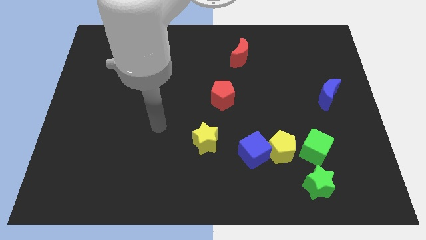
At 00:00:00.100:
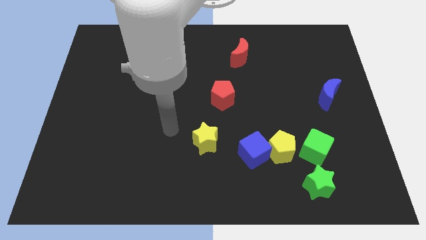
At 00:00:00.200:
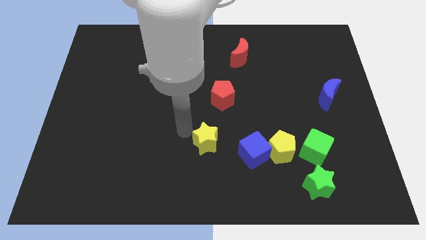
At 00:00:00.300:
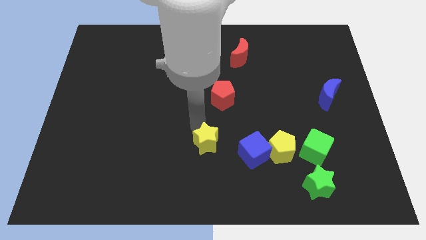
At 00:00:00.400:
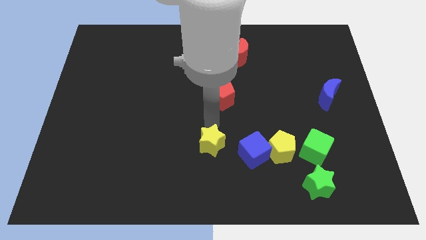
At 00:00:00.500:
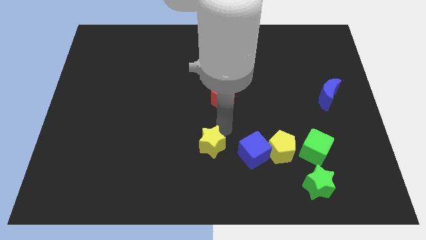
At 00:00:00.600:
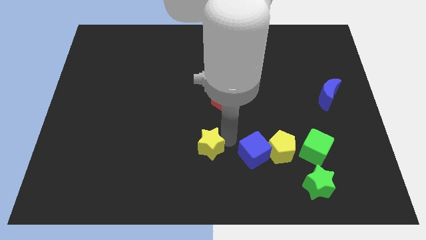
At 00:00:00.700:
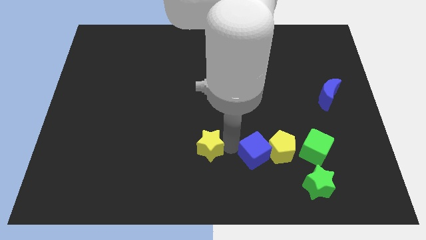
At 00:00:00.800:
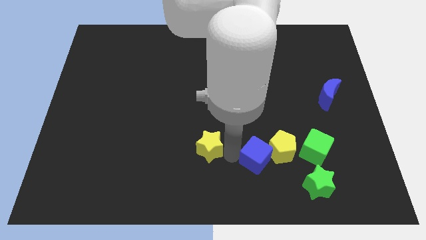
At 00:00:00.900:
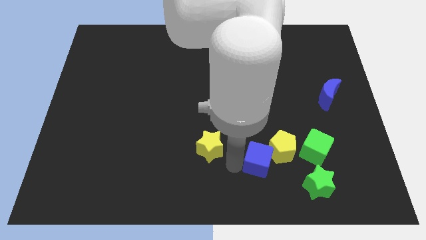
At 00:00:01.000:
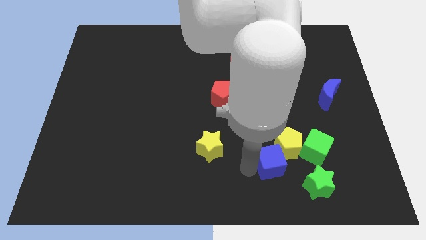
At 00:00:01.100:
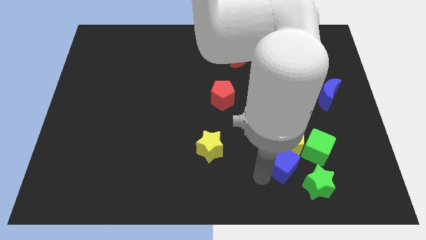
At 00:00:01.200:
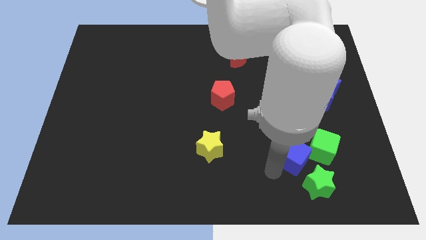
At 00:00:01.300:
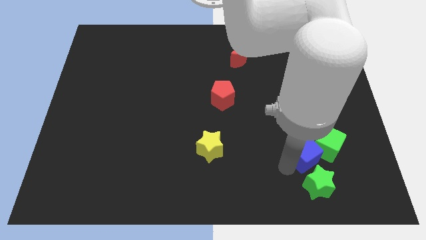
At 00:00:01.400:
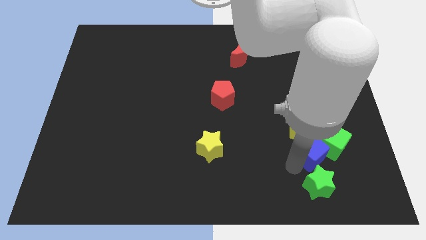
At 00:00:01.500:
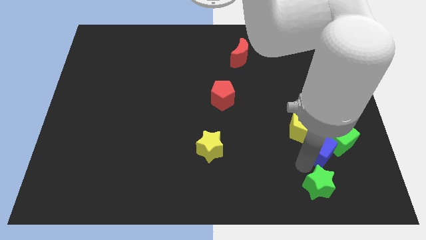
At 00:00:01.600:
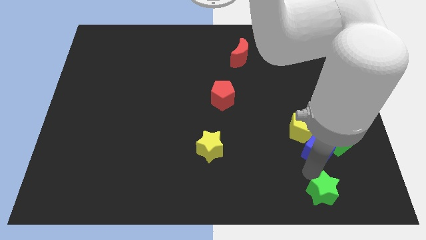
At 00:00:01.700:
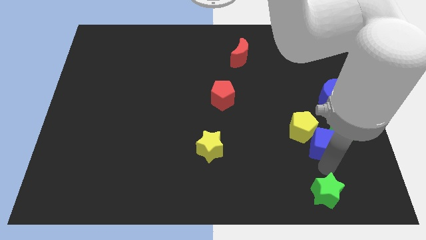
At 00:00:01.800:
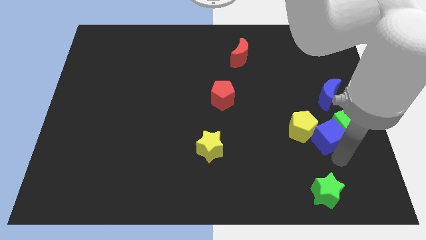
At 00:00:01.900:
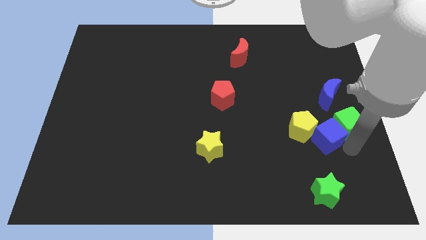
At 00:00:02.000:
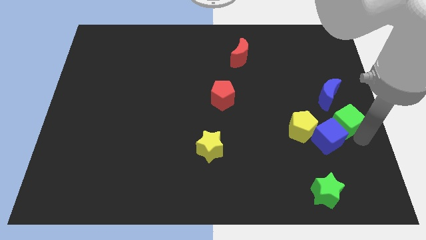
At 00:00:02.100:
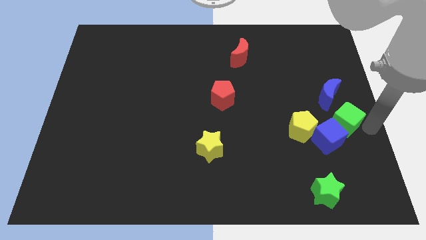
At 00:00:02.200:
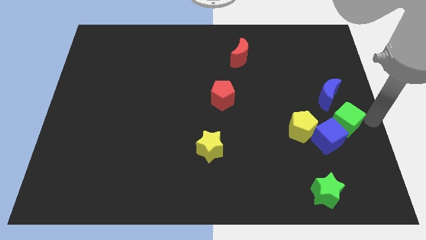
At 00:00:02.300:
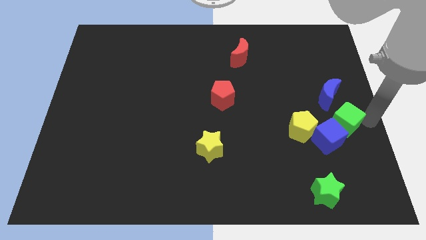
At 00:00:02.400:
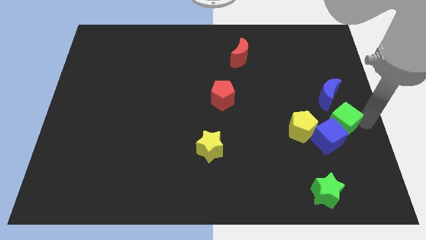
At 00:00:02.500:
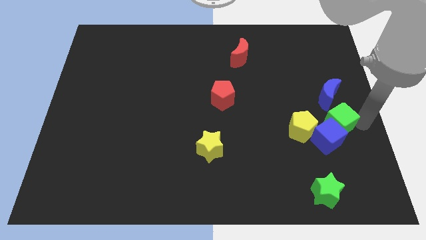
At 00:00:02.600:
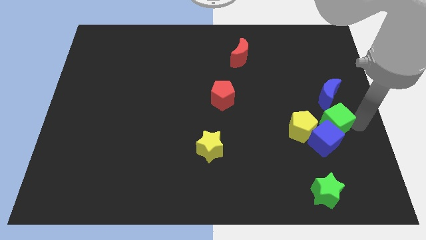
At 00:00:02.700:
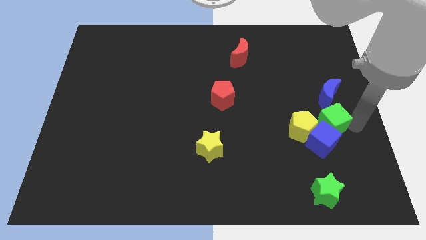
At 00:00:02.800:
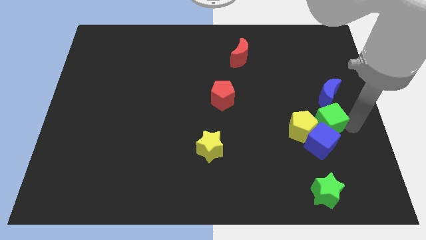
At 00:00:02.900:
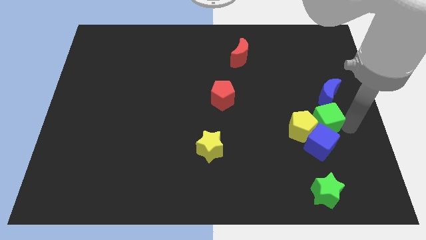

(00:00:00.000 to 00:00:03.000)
slightly push the green cube up

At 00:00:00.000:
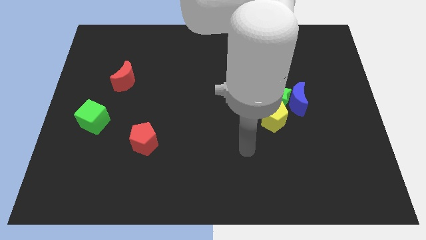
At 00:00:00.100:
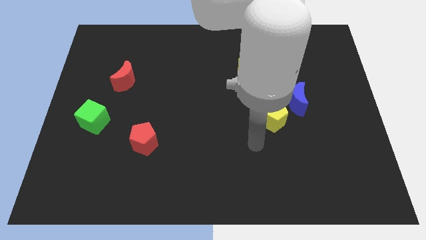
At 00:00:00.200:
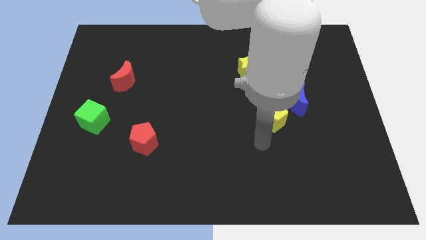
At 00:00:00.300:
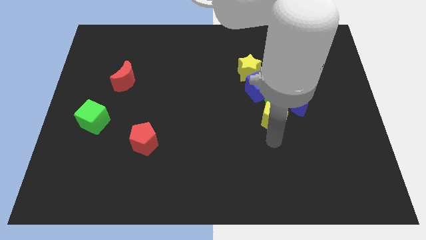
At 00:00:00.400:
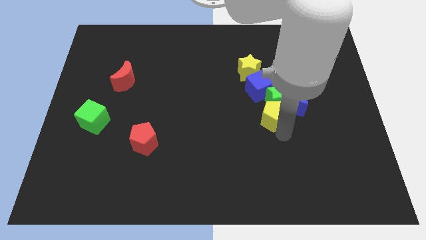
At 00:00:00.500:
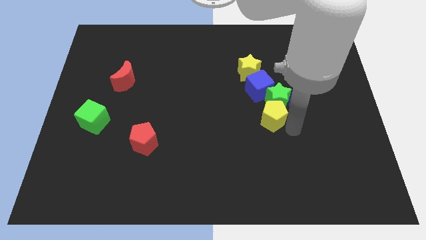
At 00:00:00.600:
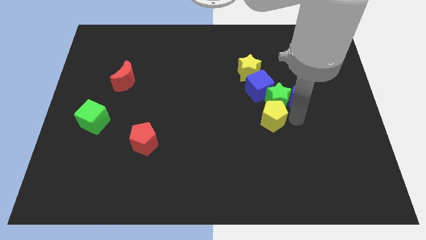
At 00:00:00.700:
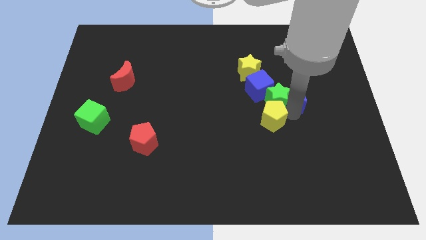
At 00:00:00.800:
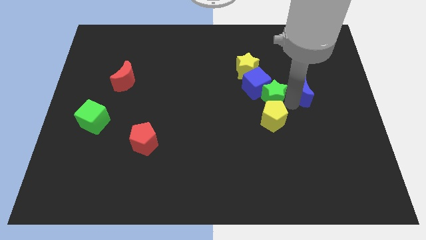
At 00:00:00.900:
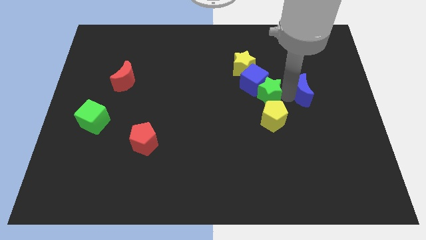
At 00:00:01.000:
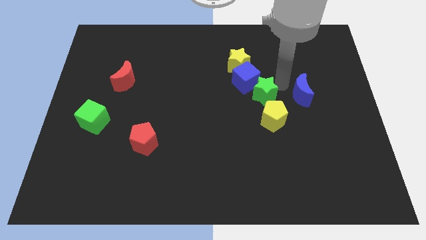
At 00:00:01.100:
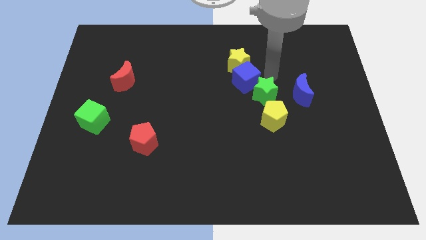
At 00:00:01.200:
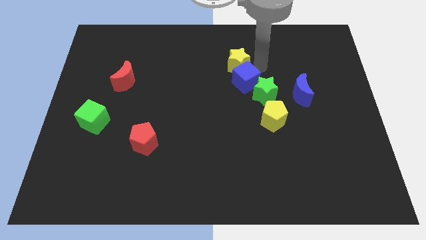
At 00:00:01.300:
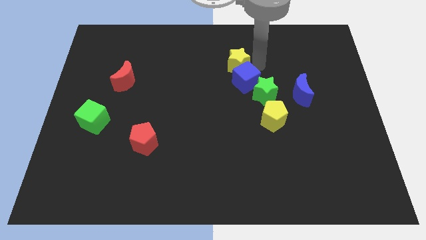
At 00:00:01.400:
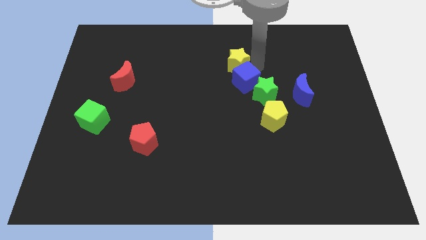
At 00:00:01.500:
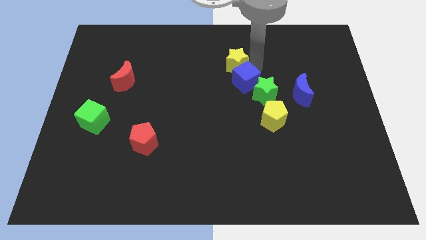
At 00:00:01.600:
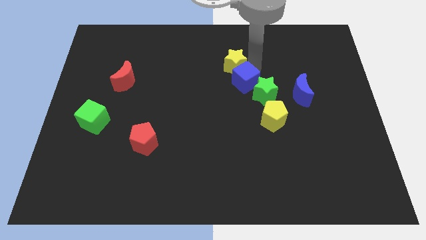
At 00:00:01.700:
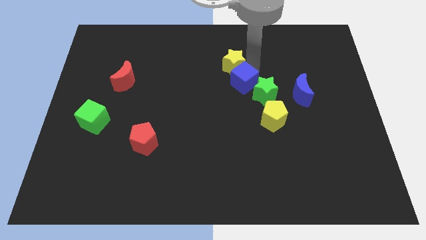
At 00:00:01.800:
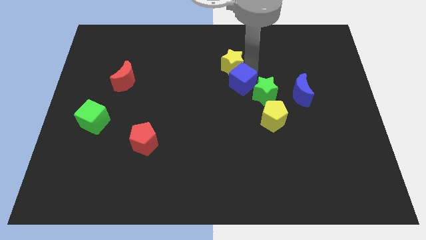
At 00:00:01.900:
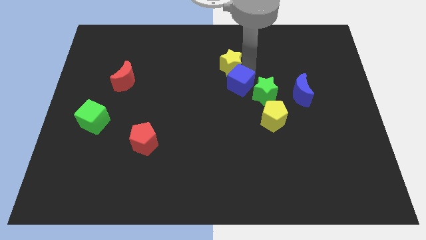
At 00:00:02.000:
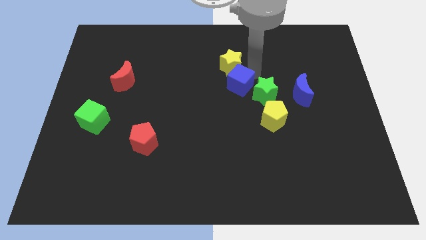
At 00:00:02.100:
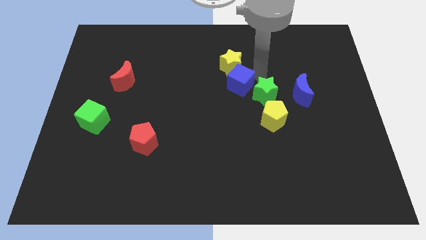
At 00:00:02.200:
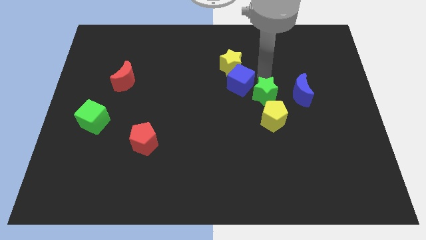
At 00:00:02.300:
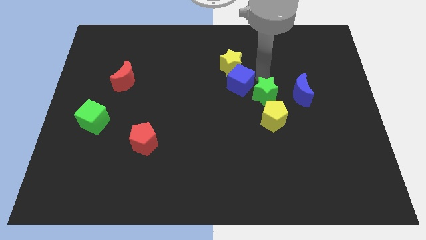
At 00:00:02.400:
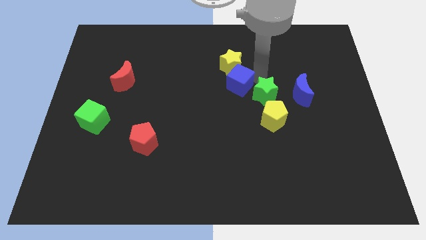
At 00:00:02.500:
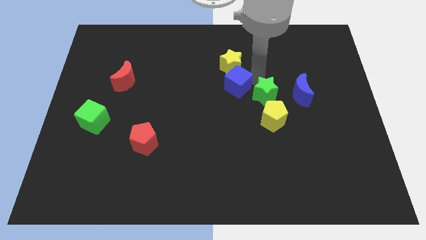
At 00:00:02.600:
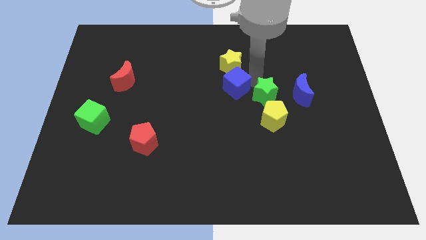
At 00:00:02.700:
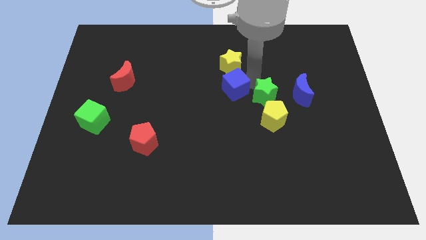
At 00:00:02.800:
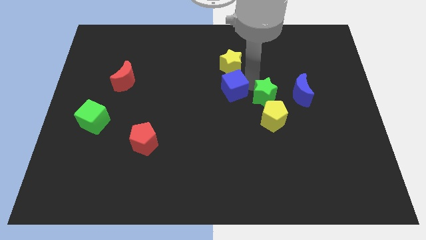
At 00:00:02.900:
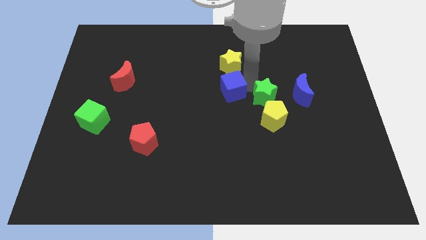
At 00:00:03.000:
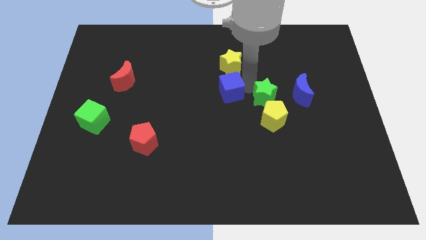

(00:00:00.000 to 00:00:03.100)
move the blue cube somewhat to the left

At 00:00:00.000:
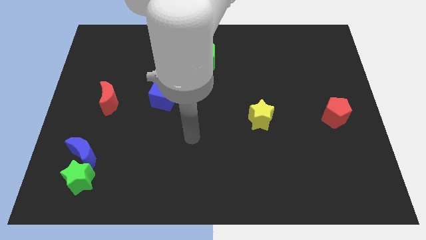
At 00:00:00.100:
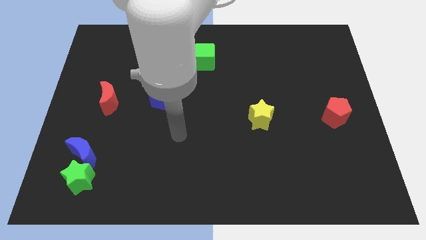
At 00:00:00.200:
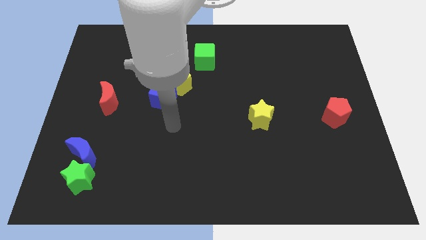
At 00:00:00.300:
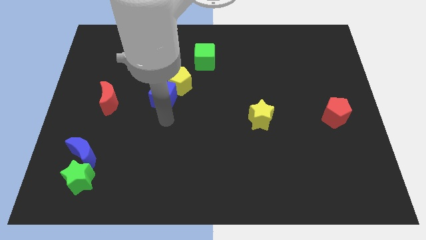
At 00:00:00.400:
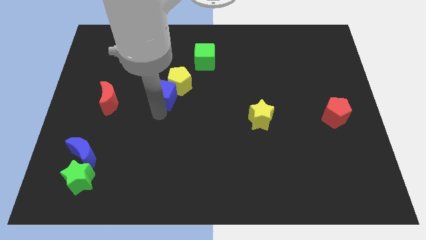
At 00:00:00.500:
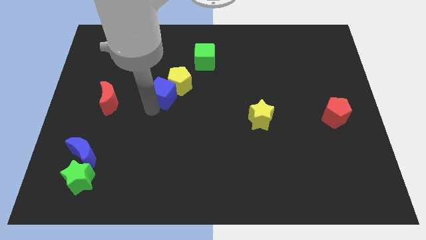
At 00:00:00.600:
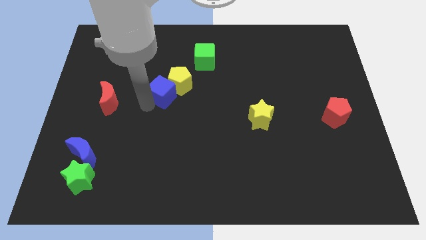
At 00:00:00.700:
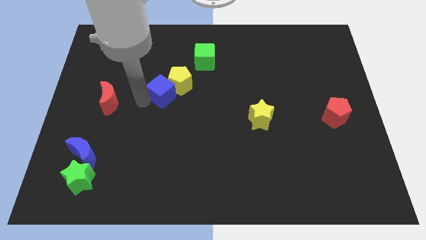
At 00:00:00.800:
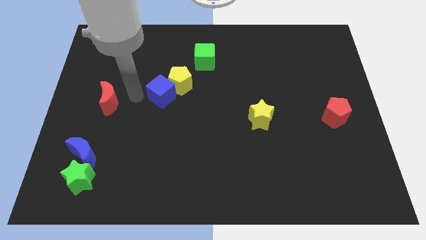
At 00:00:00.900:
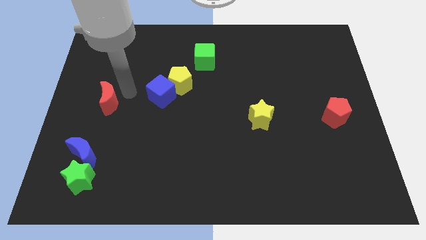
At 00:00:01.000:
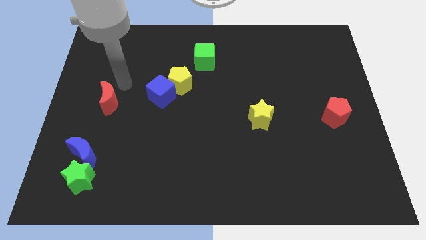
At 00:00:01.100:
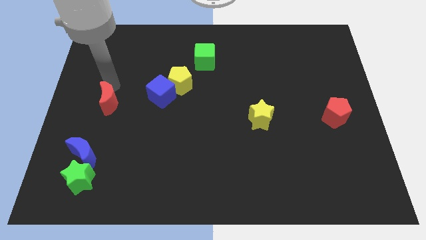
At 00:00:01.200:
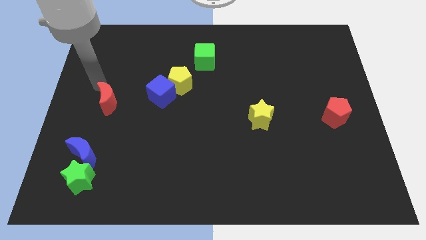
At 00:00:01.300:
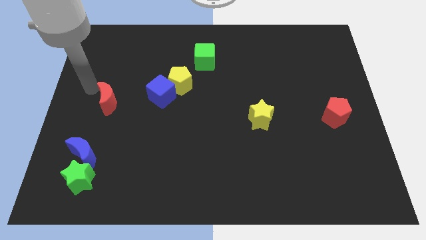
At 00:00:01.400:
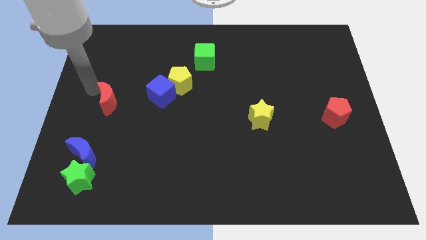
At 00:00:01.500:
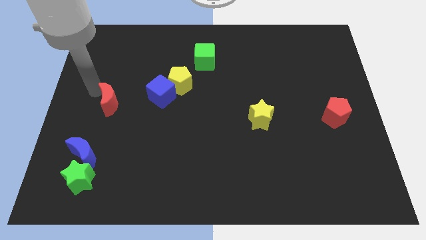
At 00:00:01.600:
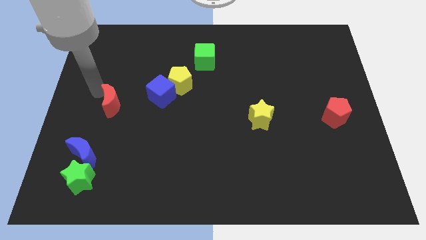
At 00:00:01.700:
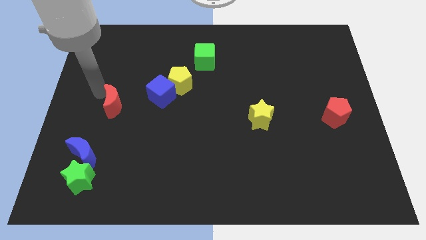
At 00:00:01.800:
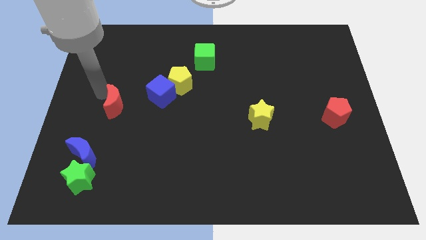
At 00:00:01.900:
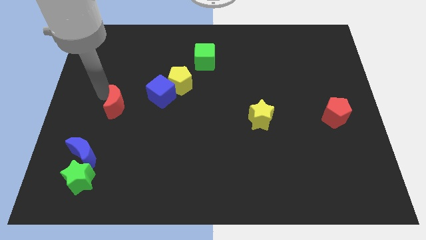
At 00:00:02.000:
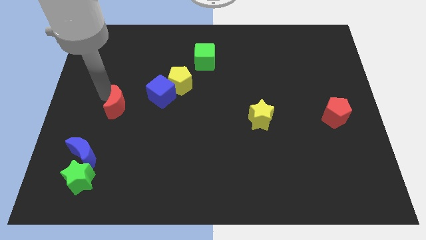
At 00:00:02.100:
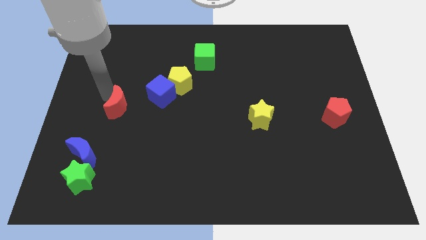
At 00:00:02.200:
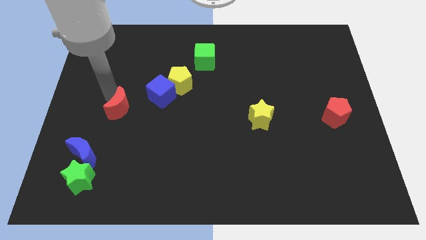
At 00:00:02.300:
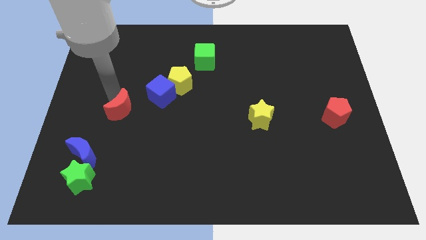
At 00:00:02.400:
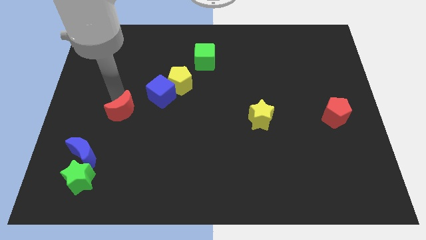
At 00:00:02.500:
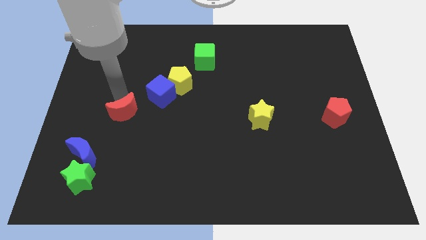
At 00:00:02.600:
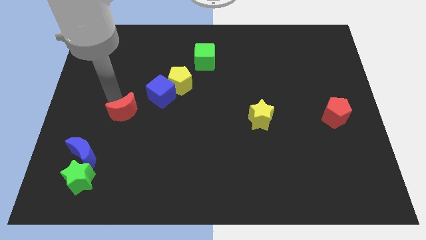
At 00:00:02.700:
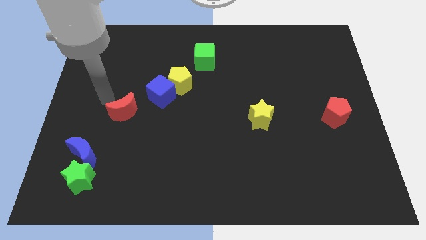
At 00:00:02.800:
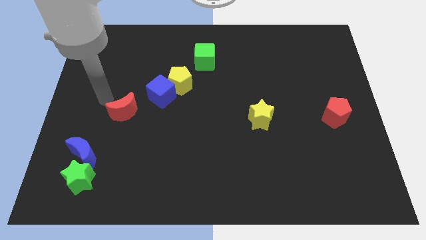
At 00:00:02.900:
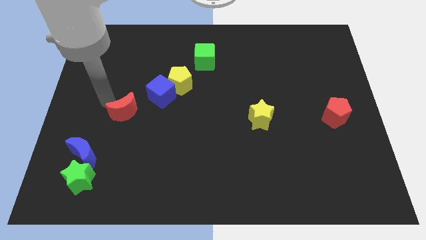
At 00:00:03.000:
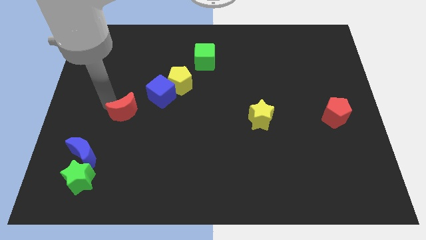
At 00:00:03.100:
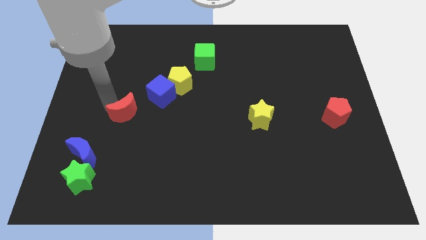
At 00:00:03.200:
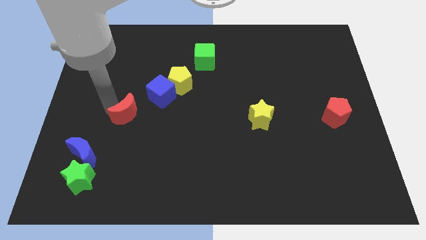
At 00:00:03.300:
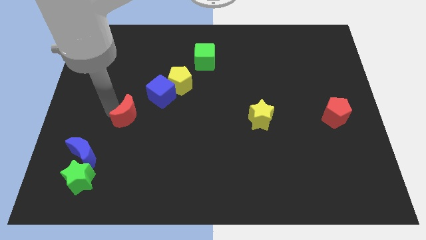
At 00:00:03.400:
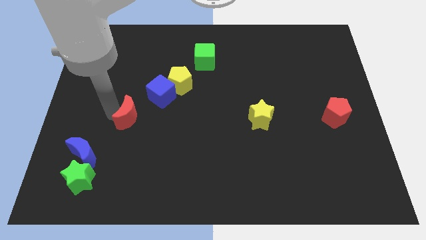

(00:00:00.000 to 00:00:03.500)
move the red moon diagonally down and to the right a little
